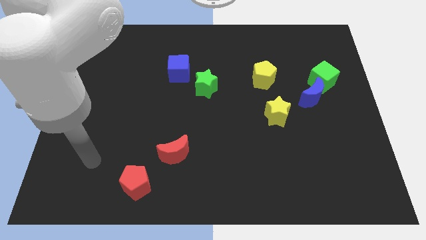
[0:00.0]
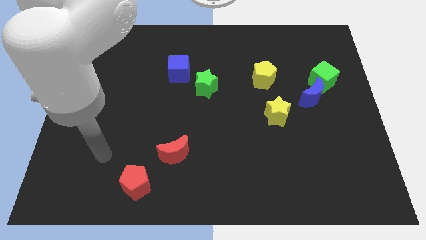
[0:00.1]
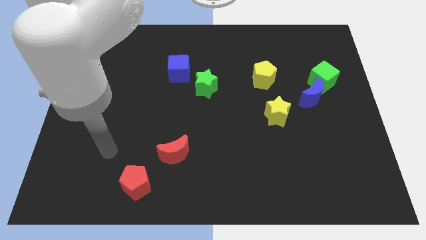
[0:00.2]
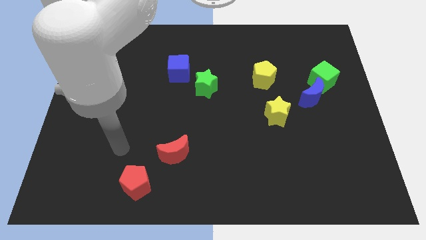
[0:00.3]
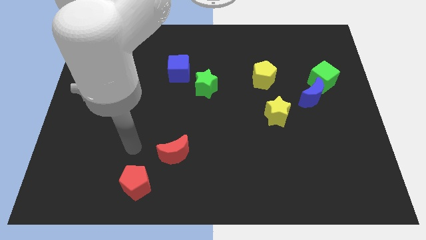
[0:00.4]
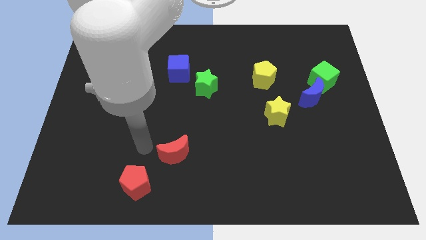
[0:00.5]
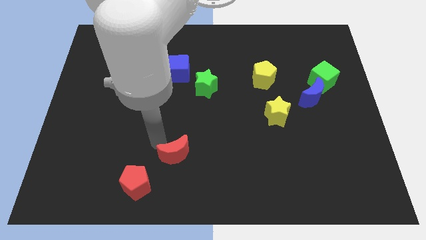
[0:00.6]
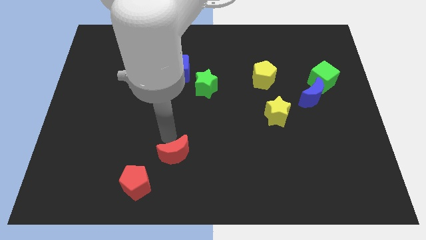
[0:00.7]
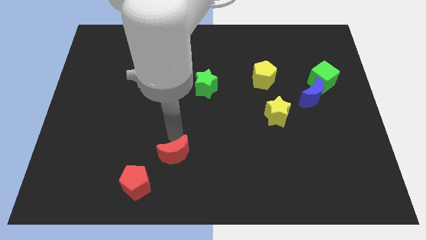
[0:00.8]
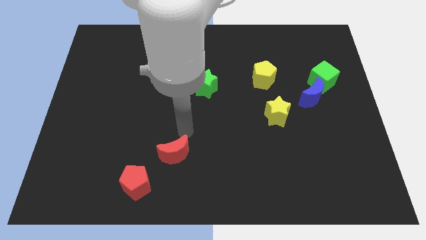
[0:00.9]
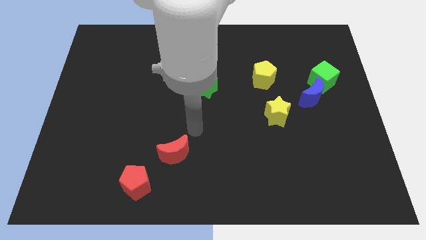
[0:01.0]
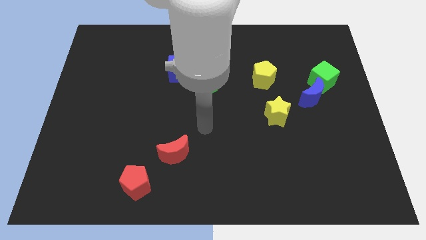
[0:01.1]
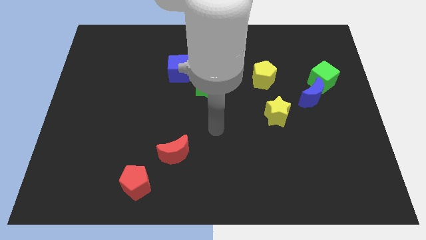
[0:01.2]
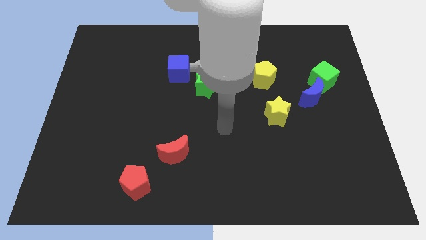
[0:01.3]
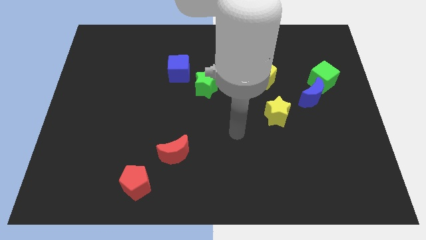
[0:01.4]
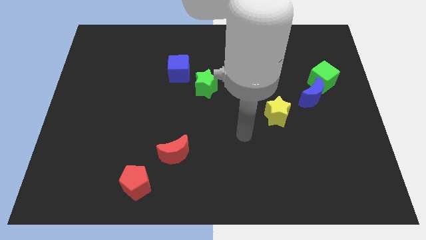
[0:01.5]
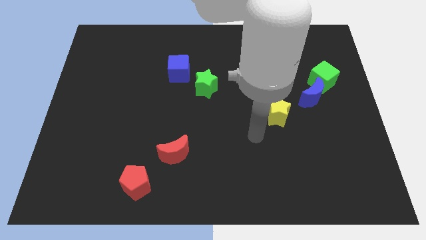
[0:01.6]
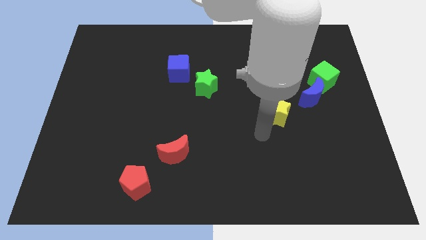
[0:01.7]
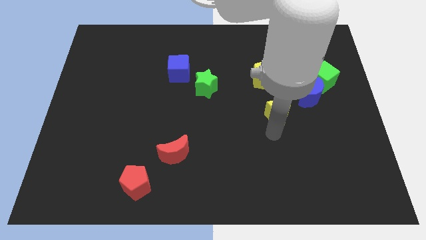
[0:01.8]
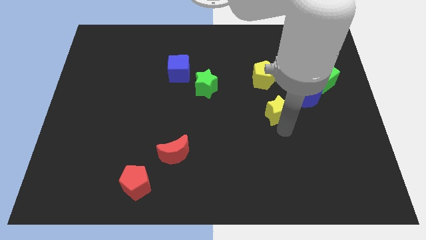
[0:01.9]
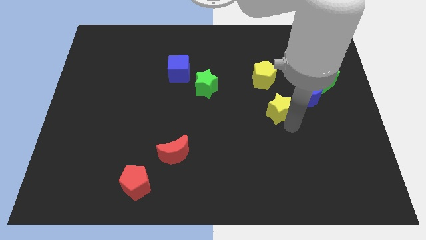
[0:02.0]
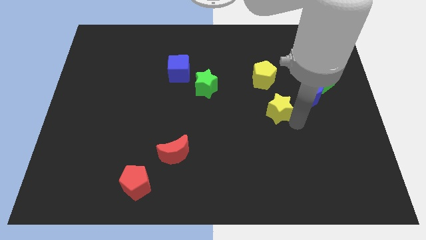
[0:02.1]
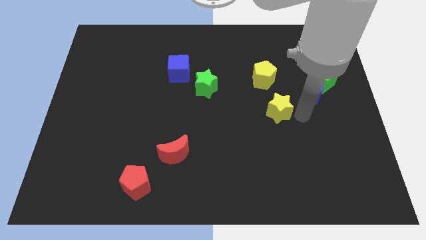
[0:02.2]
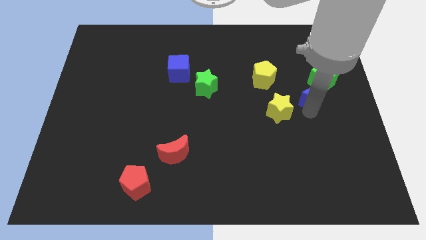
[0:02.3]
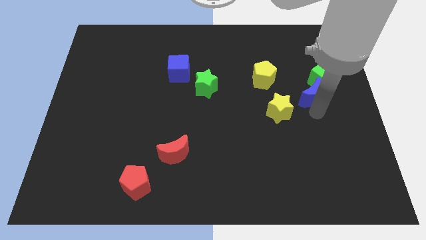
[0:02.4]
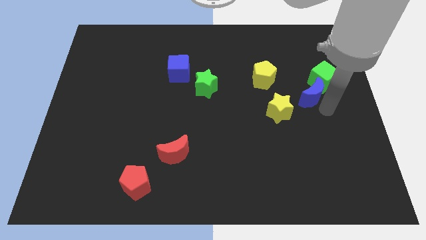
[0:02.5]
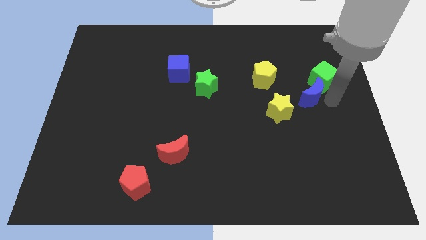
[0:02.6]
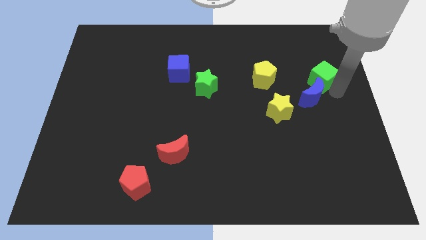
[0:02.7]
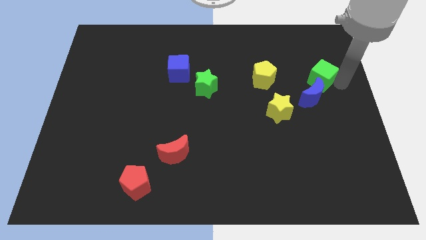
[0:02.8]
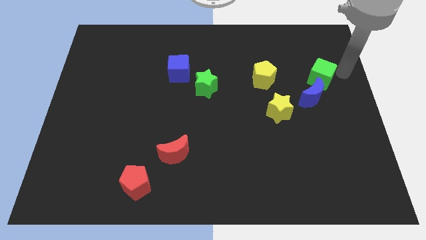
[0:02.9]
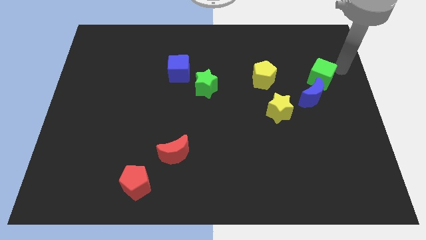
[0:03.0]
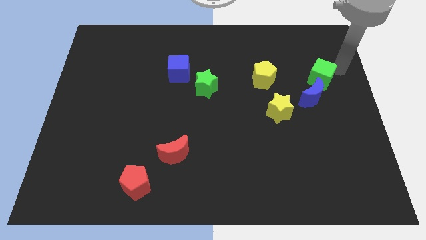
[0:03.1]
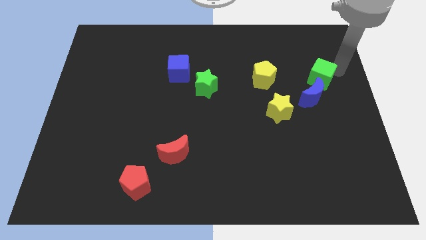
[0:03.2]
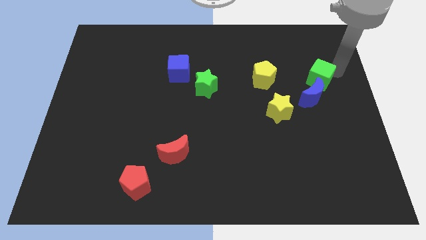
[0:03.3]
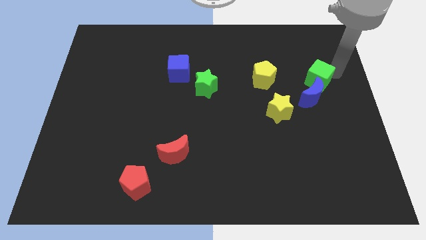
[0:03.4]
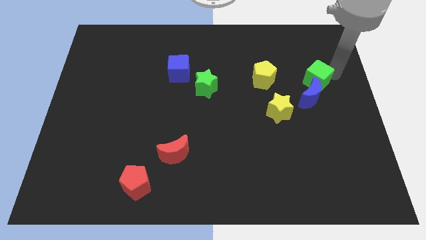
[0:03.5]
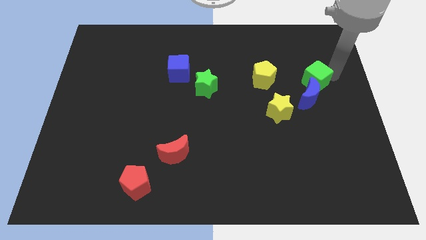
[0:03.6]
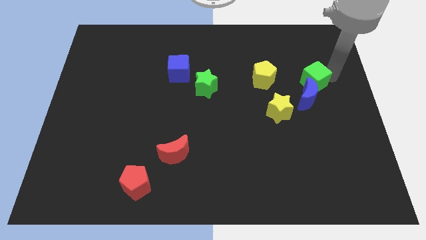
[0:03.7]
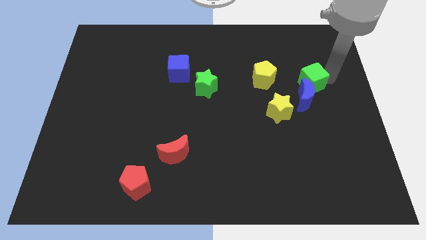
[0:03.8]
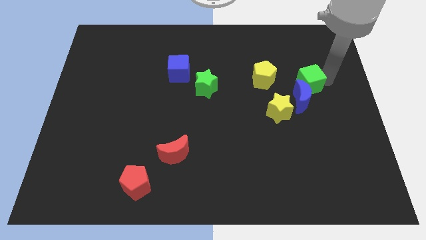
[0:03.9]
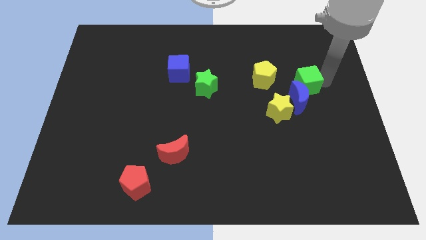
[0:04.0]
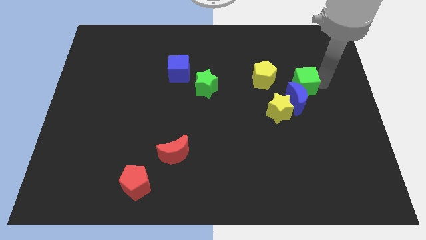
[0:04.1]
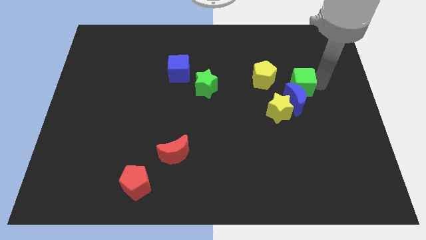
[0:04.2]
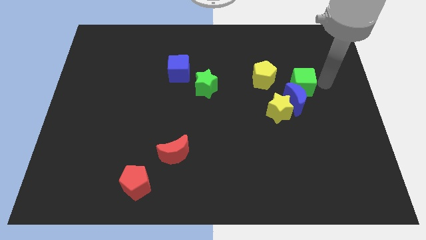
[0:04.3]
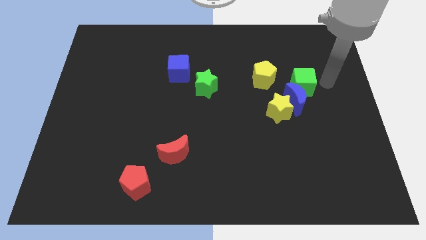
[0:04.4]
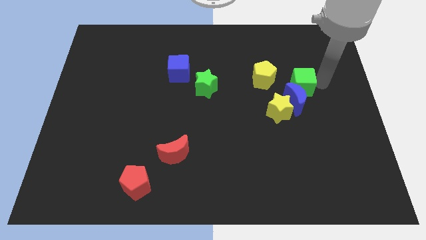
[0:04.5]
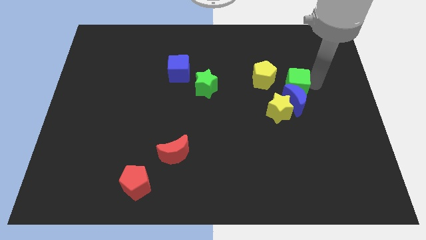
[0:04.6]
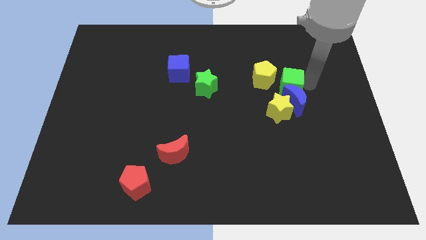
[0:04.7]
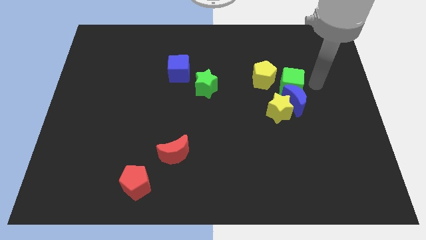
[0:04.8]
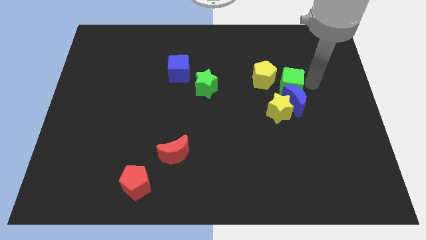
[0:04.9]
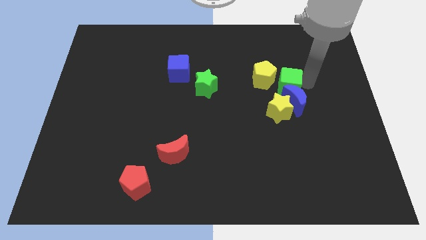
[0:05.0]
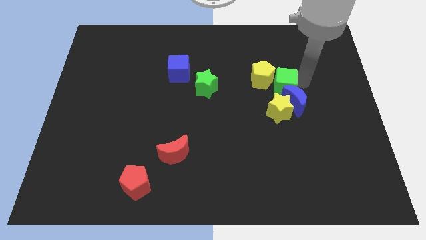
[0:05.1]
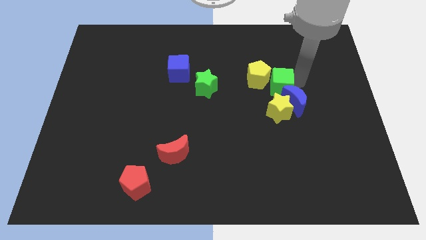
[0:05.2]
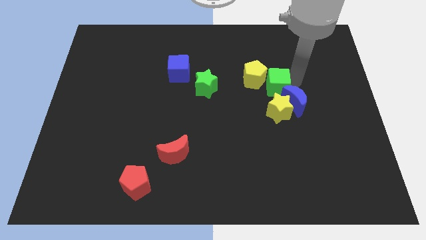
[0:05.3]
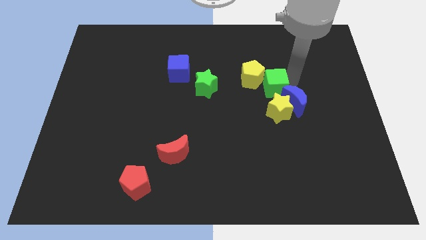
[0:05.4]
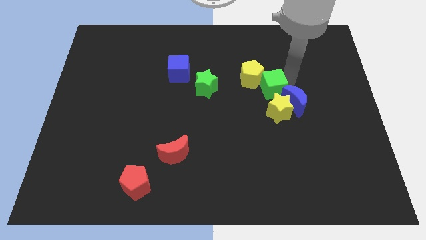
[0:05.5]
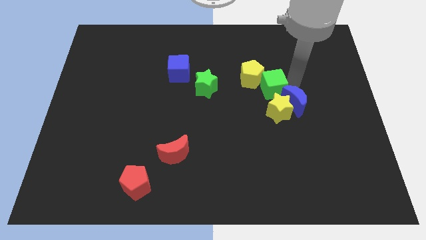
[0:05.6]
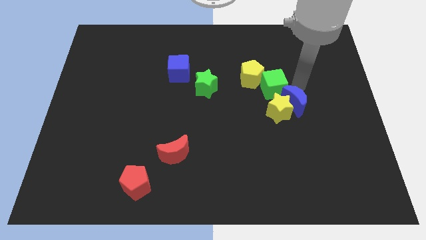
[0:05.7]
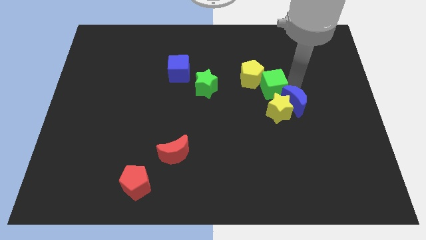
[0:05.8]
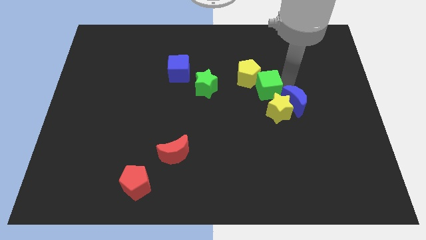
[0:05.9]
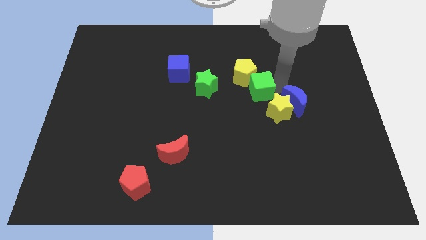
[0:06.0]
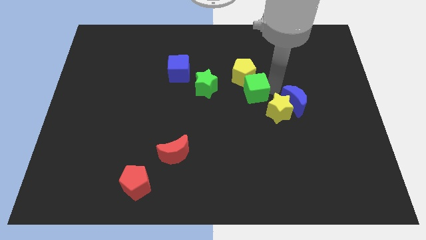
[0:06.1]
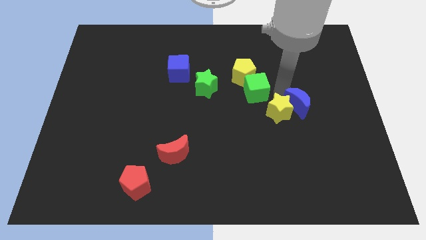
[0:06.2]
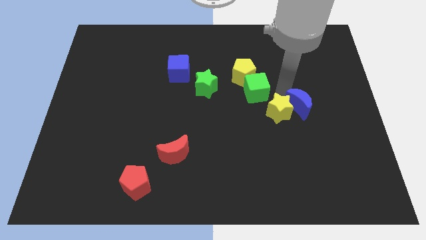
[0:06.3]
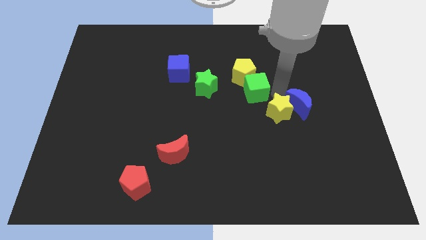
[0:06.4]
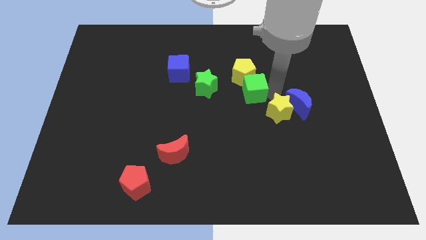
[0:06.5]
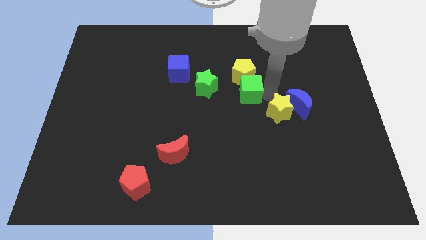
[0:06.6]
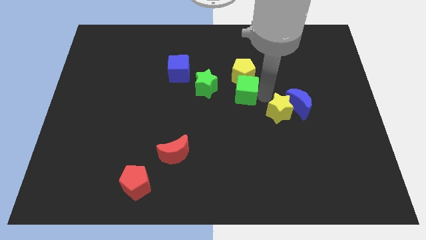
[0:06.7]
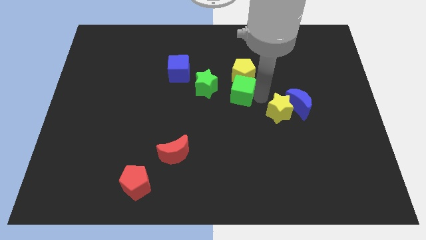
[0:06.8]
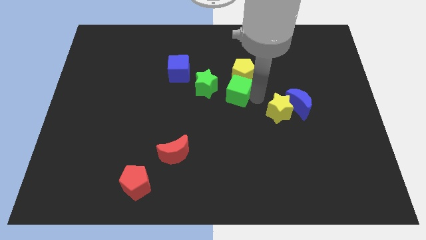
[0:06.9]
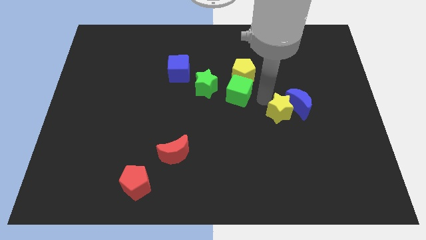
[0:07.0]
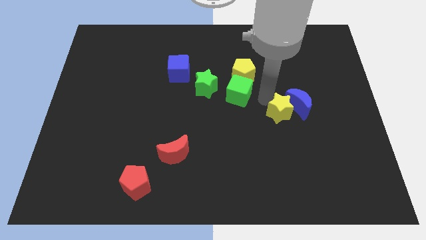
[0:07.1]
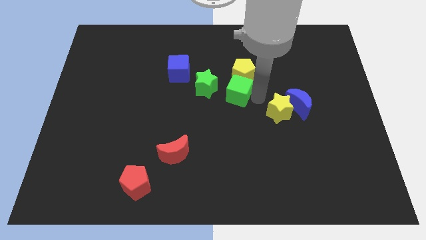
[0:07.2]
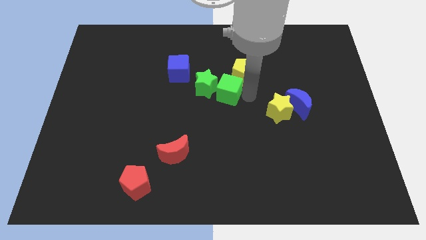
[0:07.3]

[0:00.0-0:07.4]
push the green cube close to the green star
